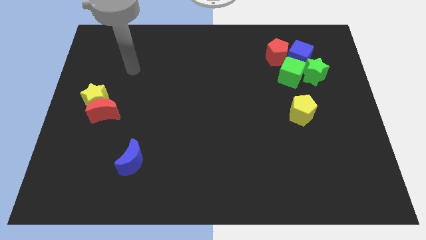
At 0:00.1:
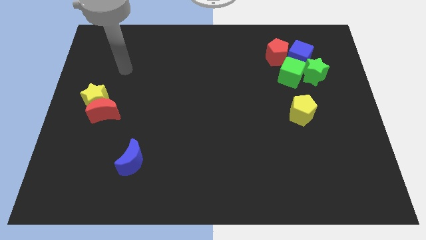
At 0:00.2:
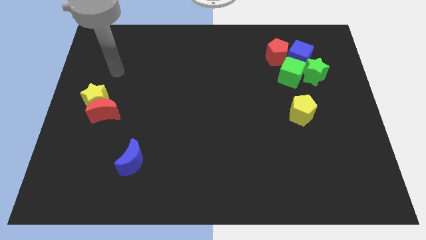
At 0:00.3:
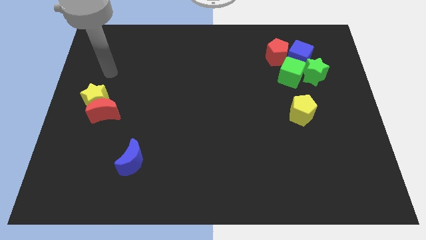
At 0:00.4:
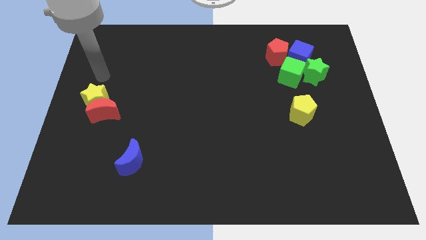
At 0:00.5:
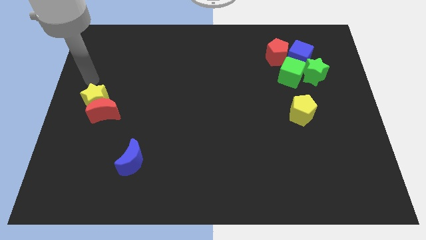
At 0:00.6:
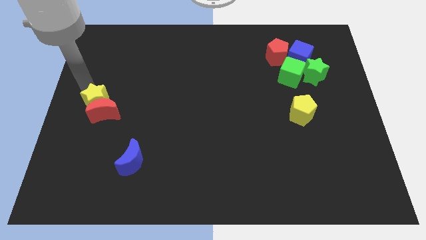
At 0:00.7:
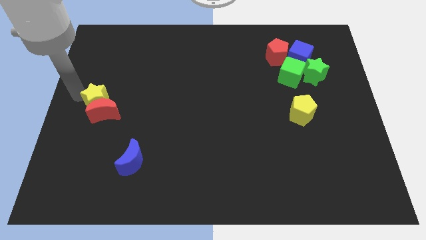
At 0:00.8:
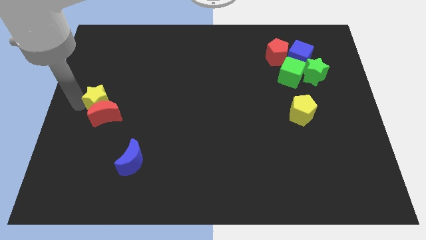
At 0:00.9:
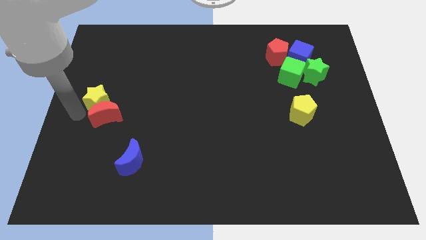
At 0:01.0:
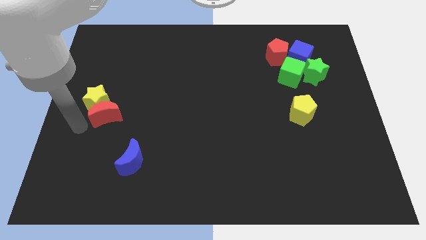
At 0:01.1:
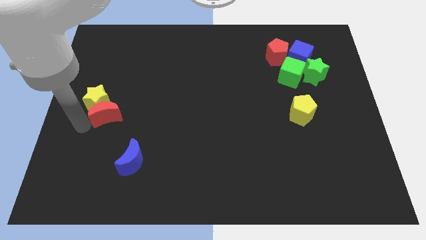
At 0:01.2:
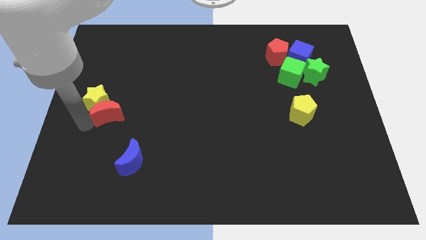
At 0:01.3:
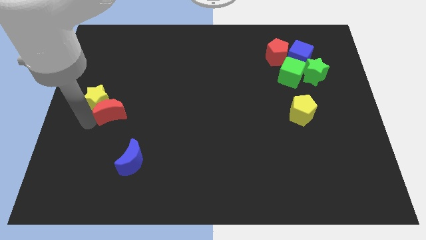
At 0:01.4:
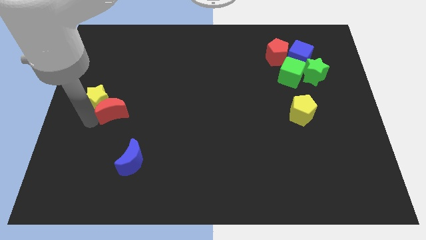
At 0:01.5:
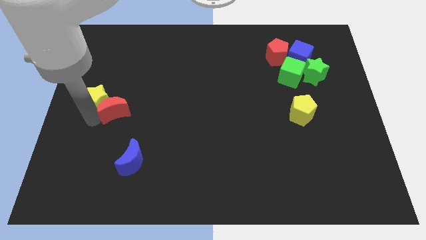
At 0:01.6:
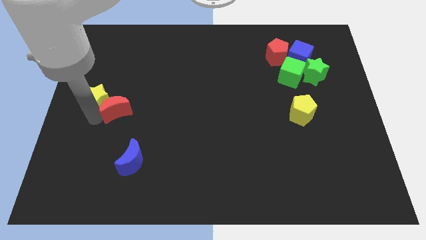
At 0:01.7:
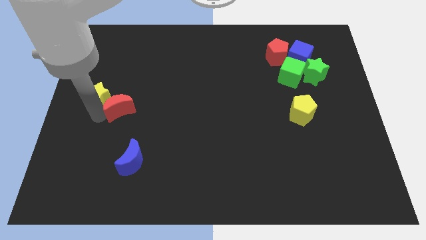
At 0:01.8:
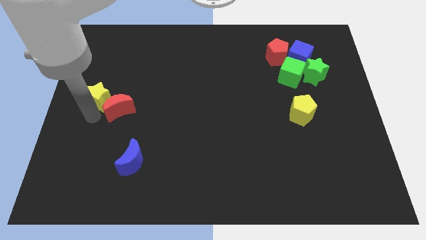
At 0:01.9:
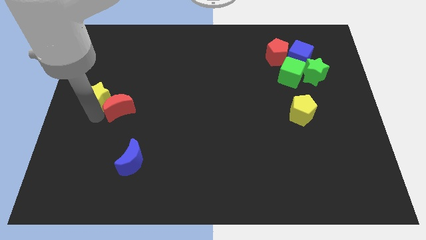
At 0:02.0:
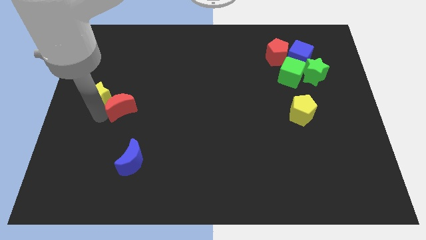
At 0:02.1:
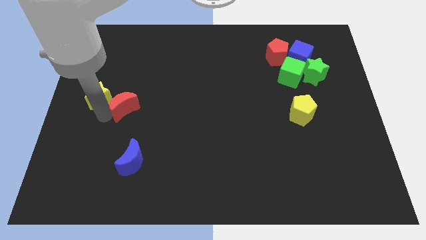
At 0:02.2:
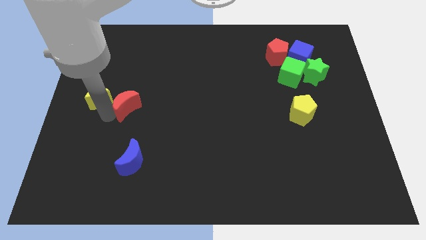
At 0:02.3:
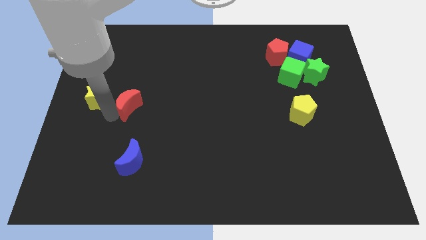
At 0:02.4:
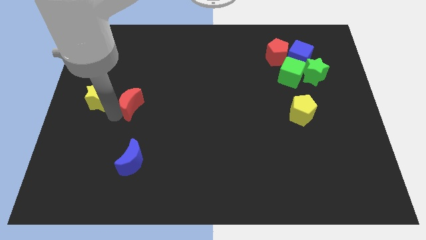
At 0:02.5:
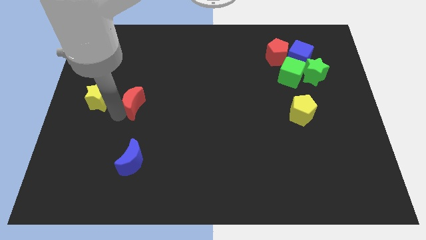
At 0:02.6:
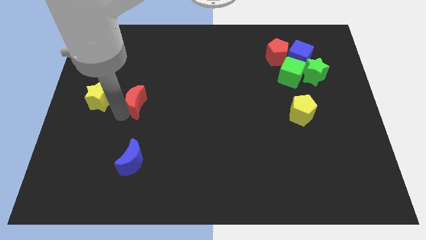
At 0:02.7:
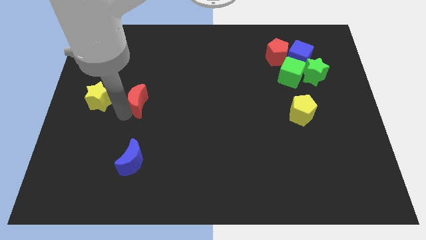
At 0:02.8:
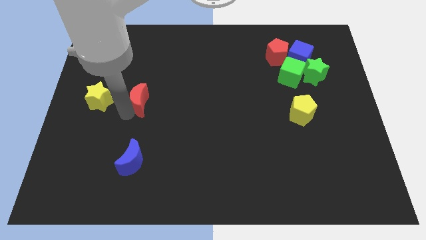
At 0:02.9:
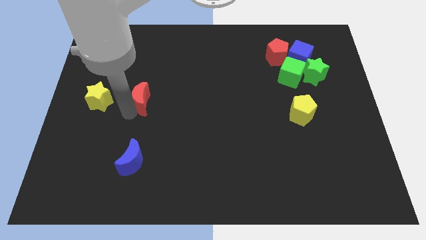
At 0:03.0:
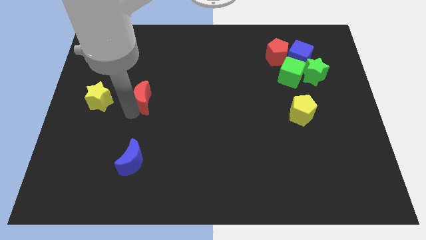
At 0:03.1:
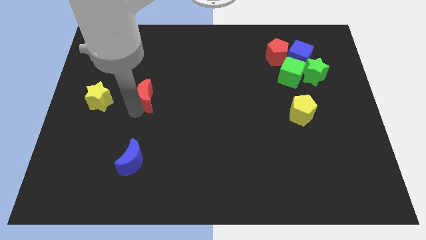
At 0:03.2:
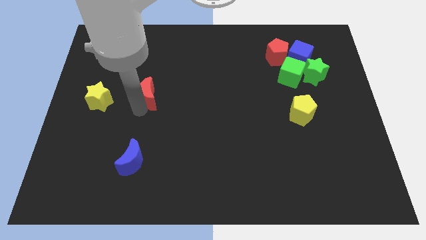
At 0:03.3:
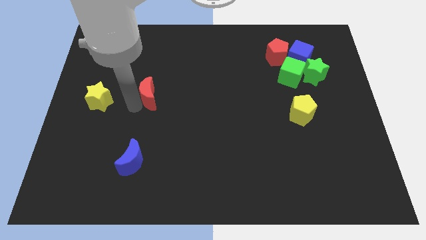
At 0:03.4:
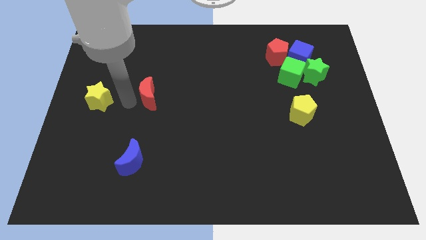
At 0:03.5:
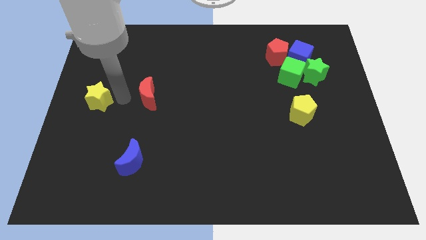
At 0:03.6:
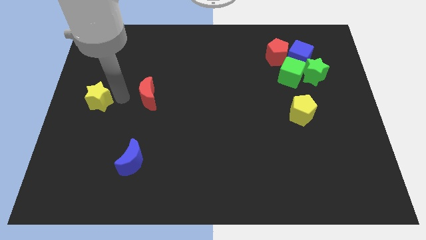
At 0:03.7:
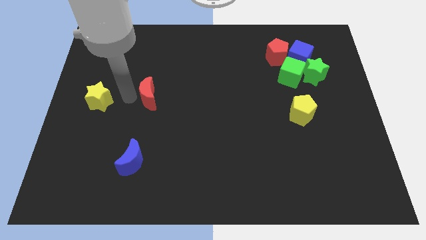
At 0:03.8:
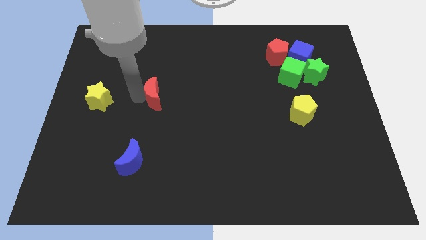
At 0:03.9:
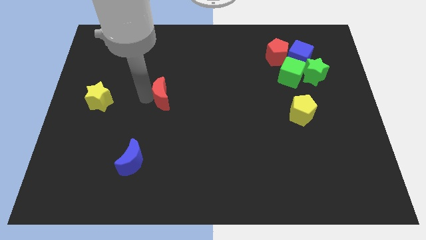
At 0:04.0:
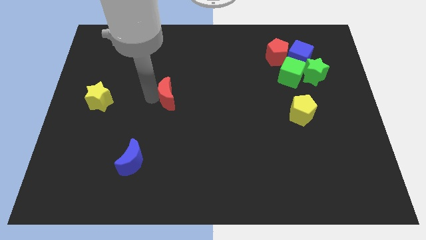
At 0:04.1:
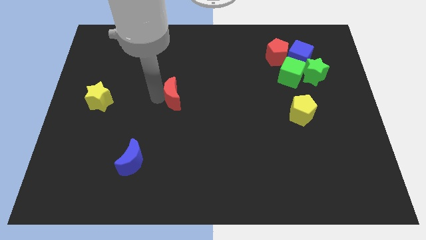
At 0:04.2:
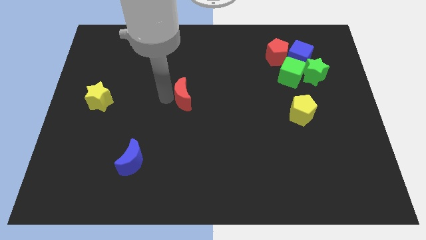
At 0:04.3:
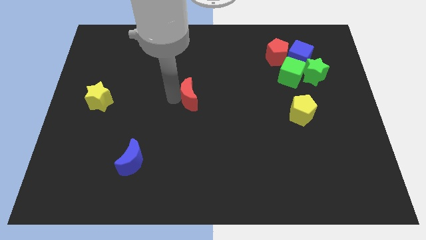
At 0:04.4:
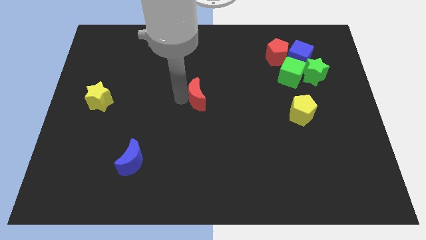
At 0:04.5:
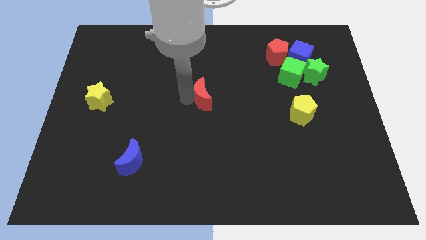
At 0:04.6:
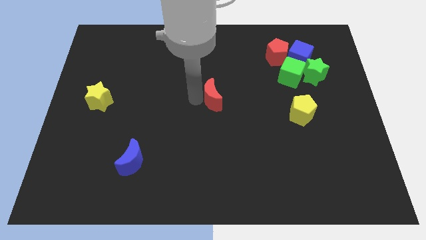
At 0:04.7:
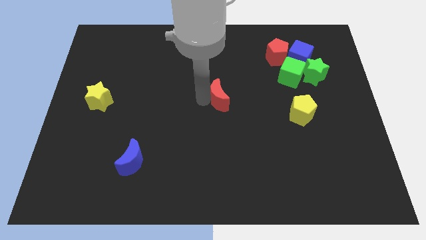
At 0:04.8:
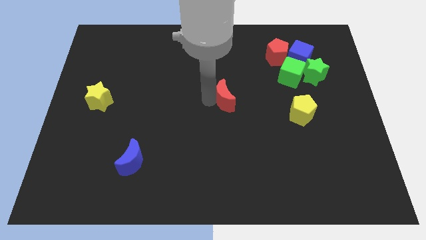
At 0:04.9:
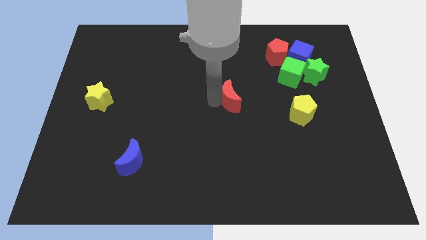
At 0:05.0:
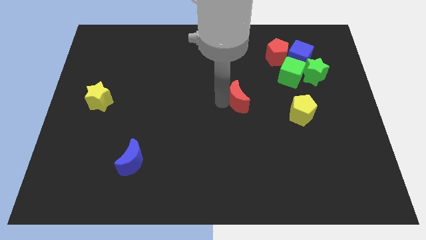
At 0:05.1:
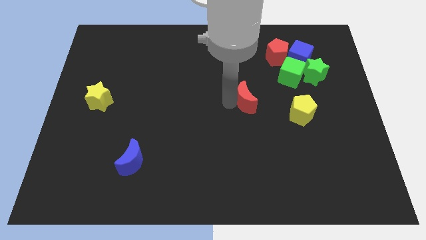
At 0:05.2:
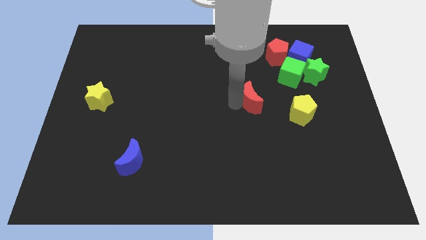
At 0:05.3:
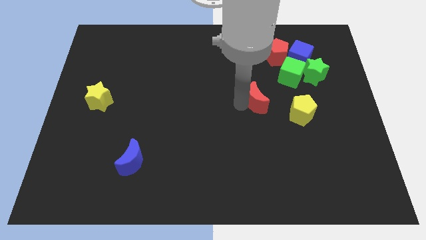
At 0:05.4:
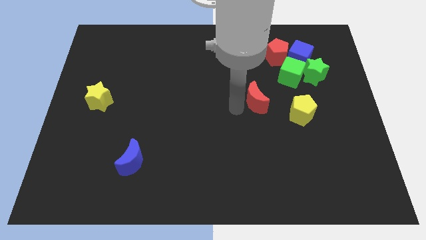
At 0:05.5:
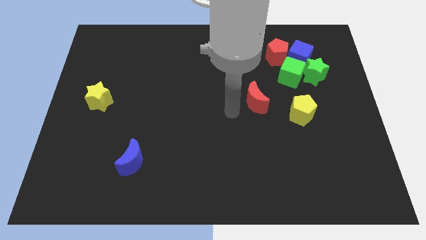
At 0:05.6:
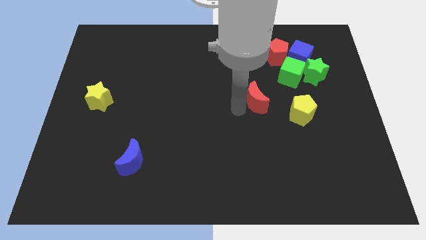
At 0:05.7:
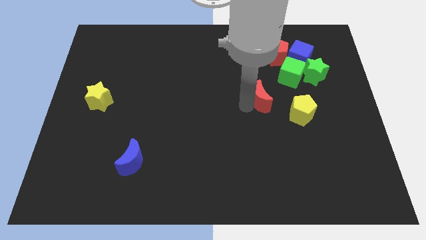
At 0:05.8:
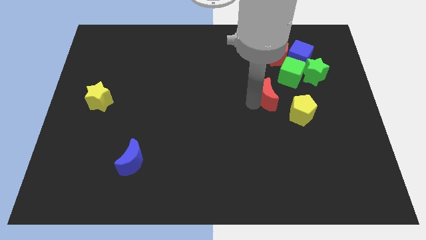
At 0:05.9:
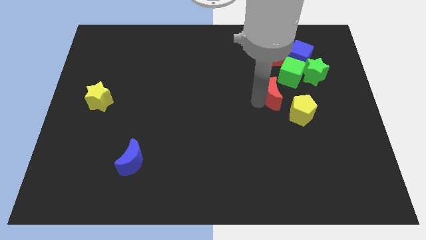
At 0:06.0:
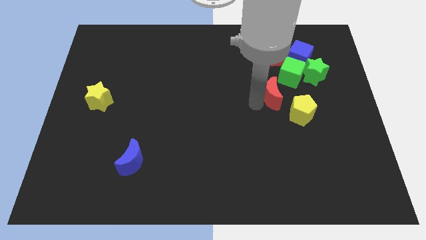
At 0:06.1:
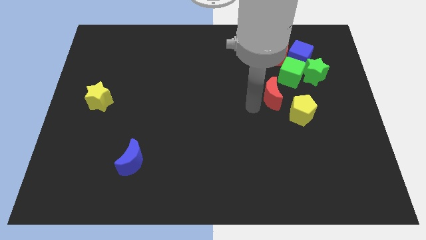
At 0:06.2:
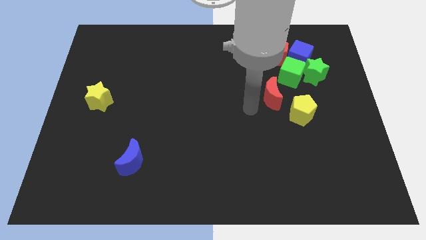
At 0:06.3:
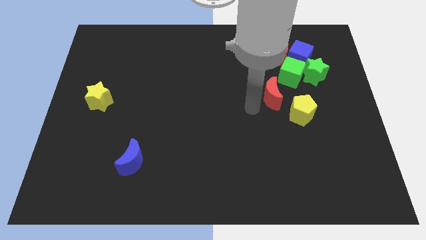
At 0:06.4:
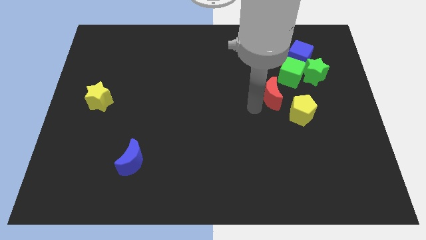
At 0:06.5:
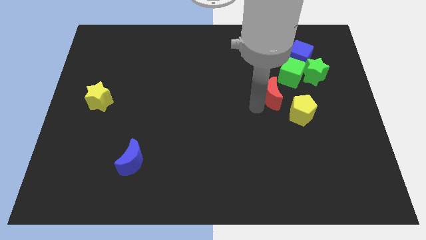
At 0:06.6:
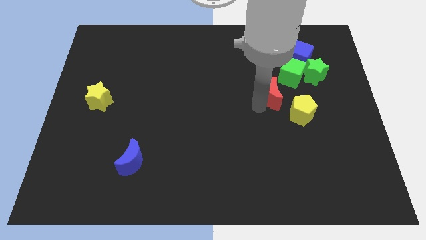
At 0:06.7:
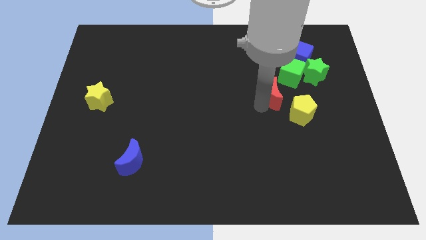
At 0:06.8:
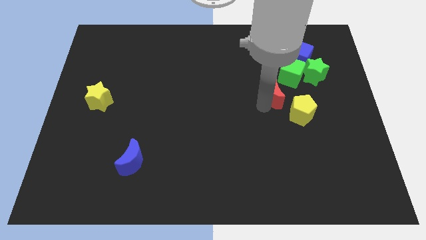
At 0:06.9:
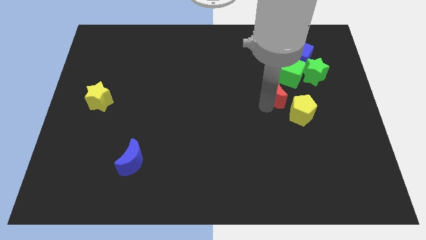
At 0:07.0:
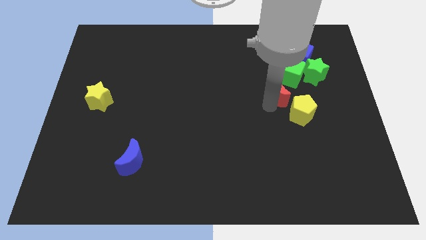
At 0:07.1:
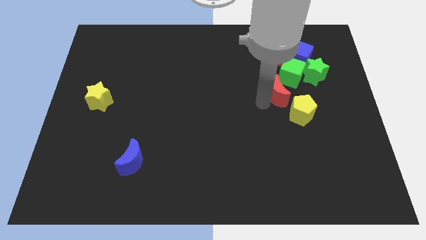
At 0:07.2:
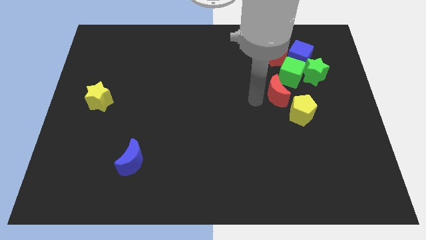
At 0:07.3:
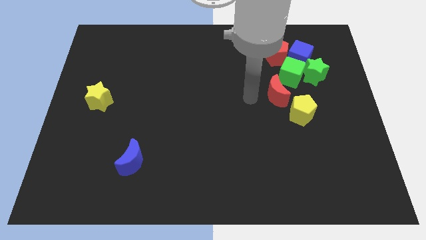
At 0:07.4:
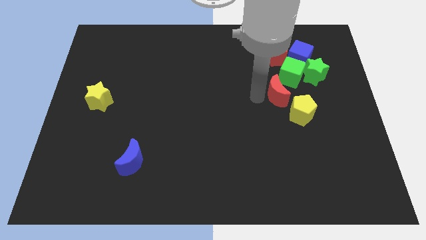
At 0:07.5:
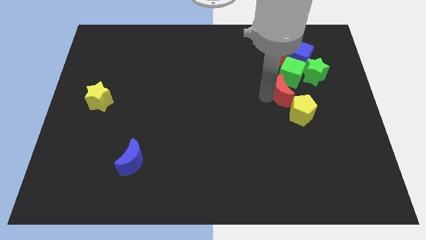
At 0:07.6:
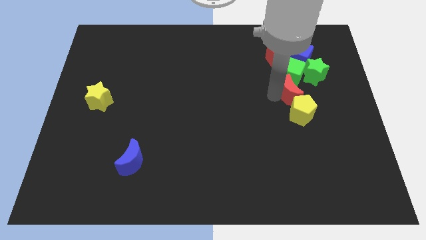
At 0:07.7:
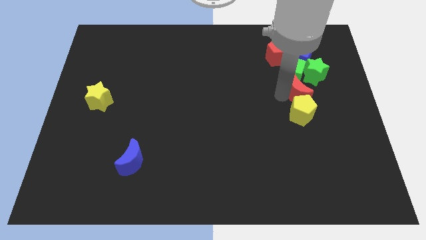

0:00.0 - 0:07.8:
move the red moon diagonally down and to the right of the green cube
